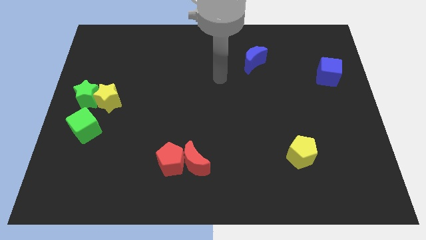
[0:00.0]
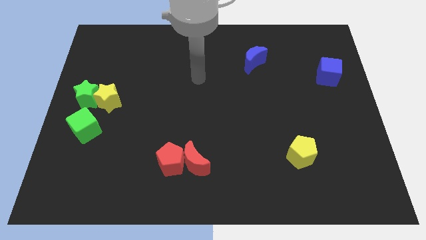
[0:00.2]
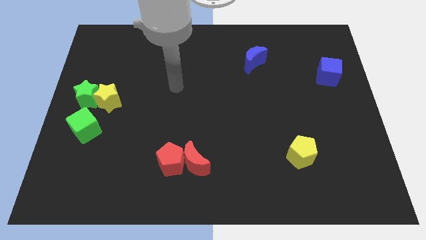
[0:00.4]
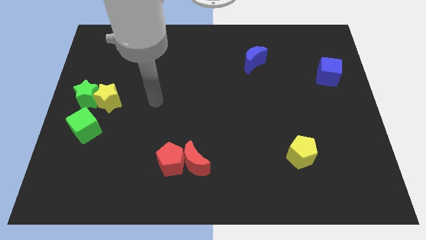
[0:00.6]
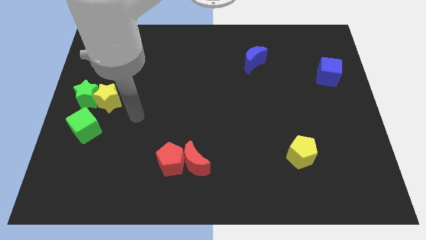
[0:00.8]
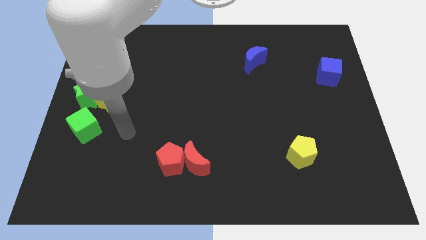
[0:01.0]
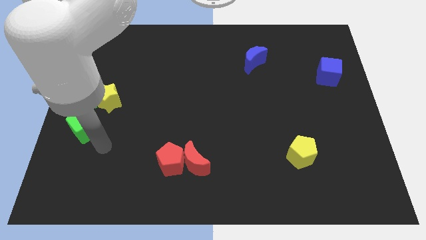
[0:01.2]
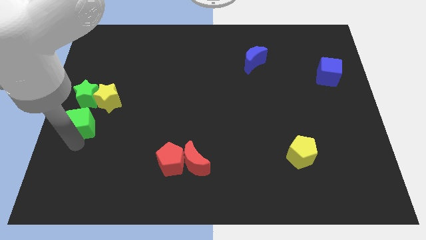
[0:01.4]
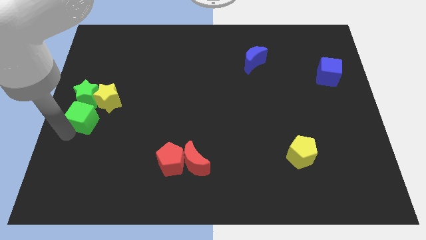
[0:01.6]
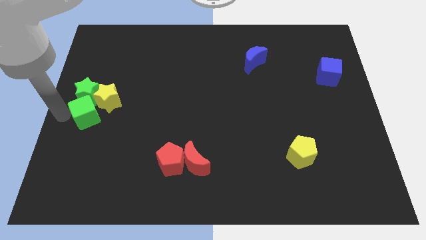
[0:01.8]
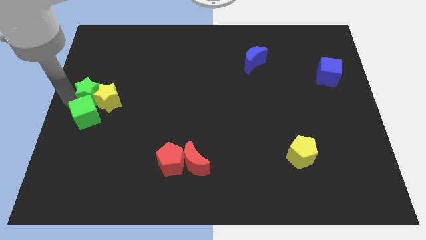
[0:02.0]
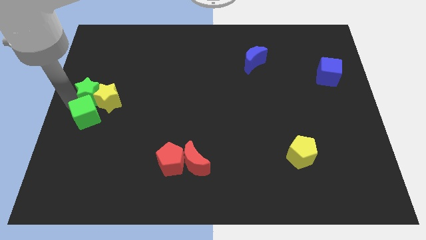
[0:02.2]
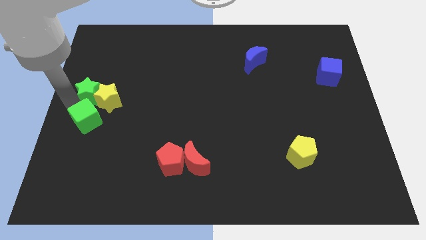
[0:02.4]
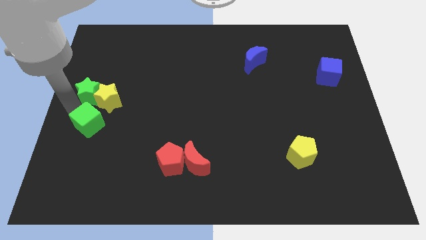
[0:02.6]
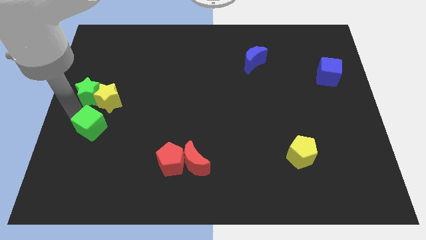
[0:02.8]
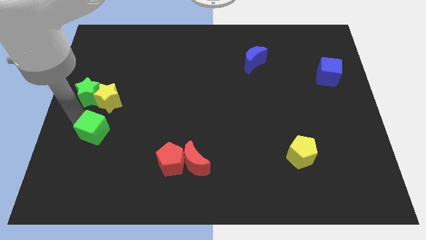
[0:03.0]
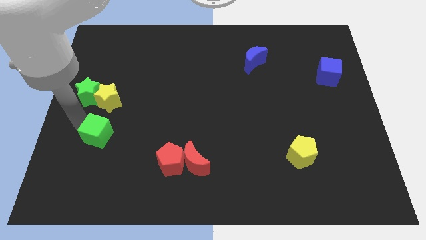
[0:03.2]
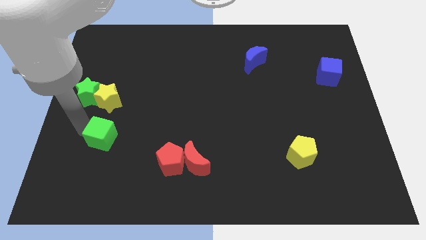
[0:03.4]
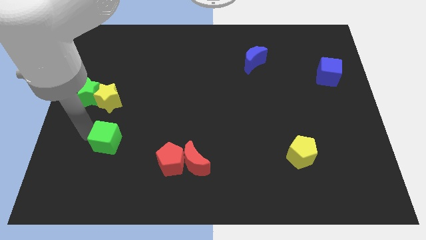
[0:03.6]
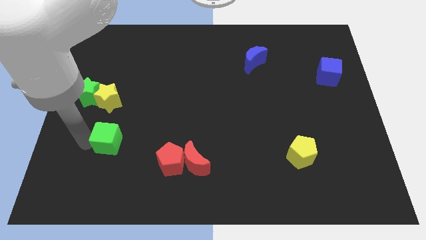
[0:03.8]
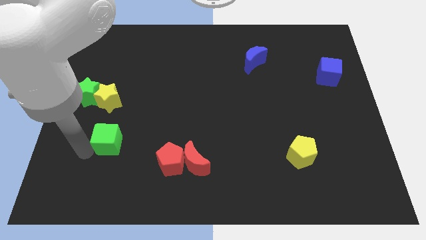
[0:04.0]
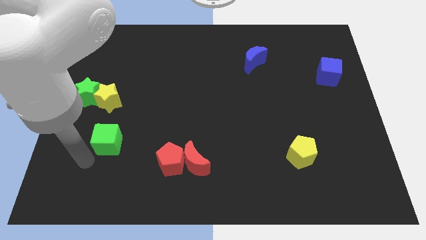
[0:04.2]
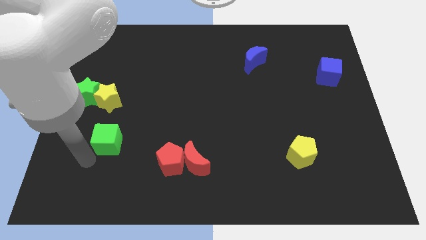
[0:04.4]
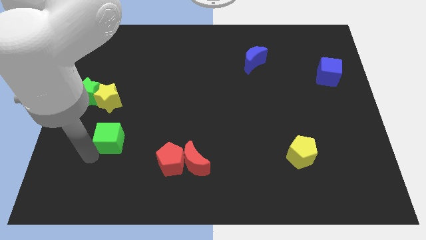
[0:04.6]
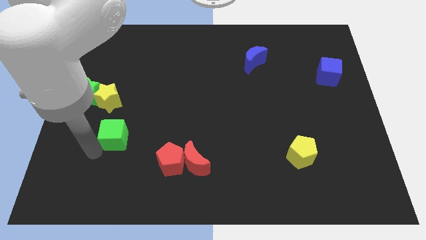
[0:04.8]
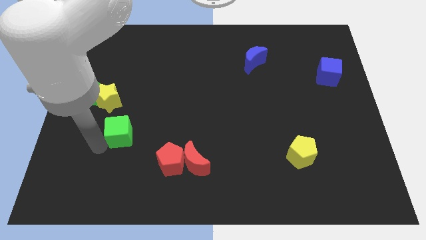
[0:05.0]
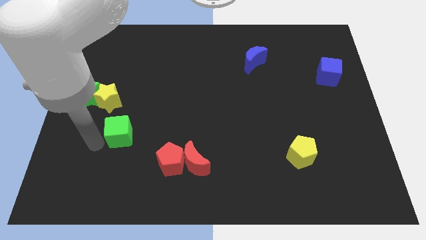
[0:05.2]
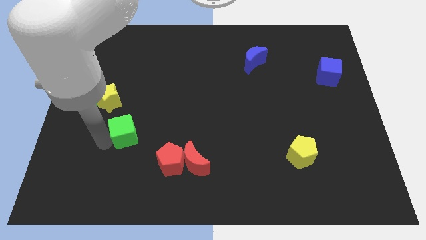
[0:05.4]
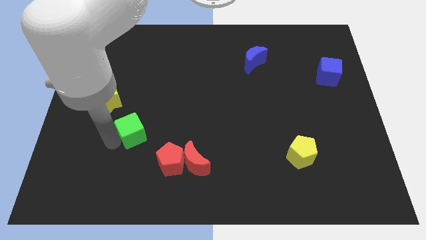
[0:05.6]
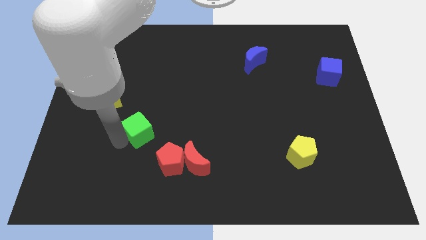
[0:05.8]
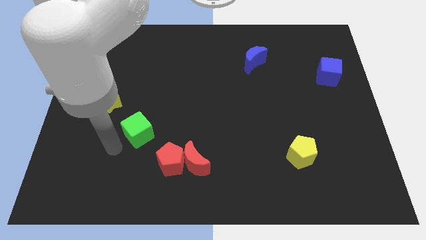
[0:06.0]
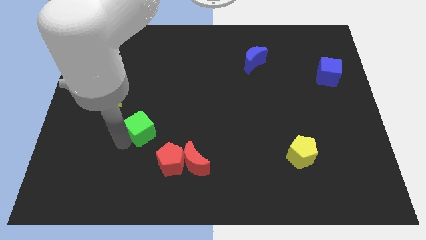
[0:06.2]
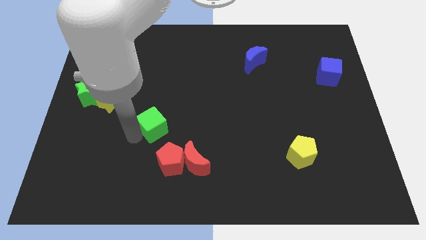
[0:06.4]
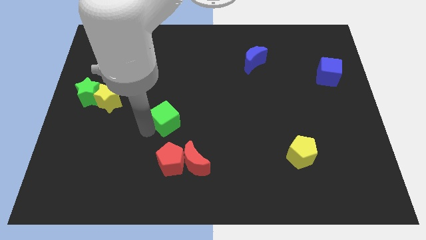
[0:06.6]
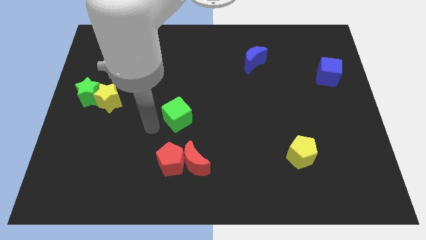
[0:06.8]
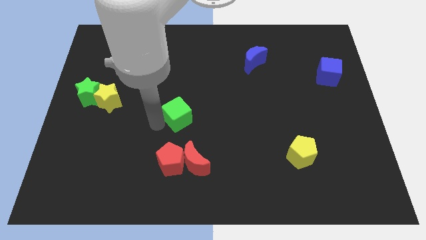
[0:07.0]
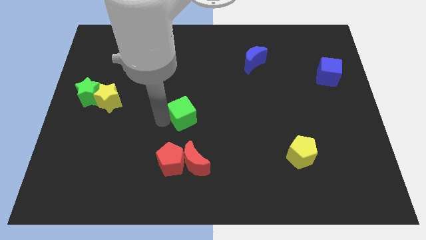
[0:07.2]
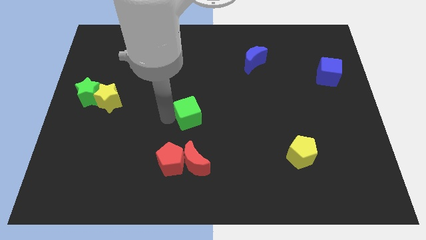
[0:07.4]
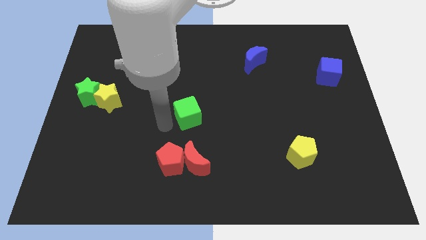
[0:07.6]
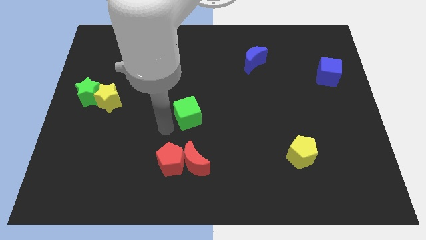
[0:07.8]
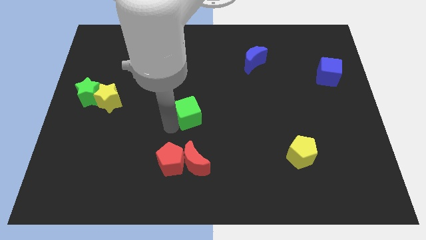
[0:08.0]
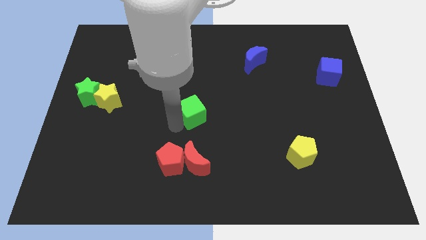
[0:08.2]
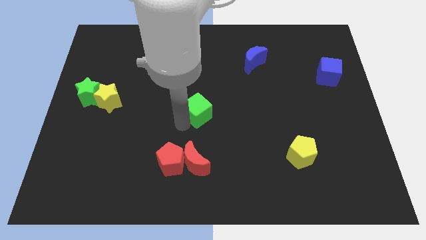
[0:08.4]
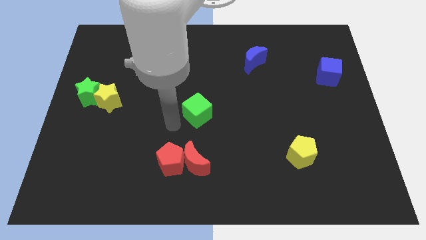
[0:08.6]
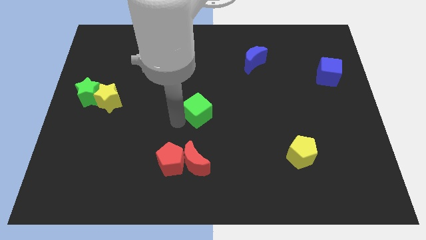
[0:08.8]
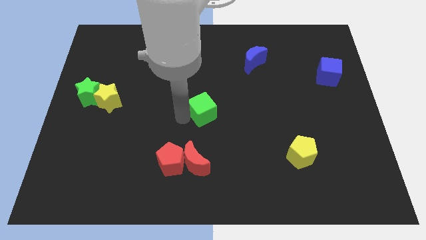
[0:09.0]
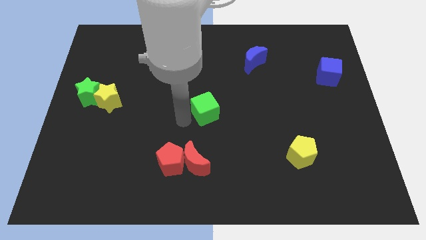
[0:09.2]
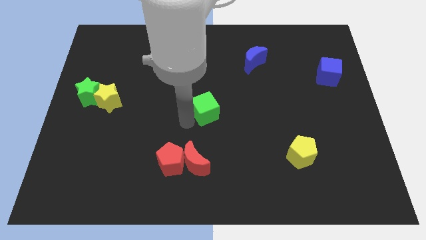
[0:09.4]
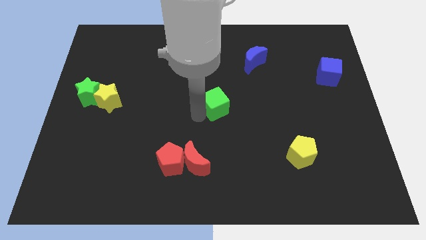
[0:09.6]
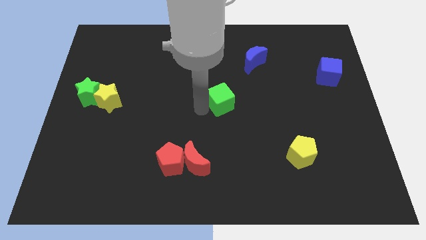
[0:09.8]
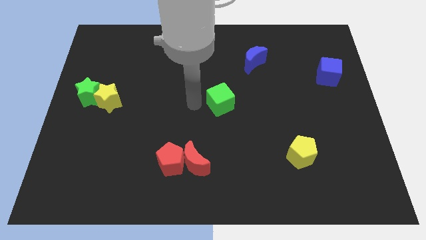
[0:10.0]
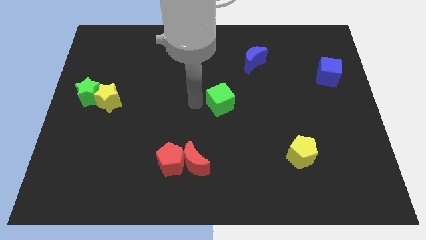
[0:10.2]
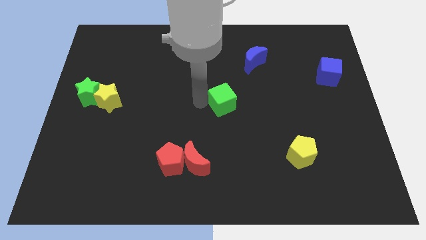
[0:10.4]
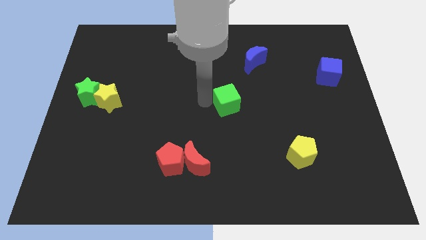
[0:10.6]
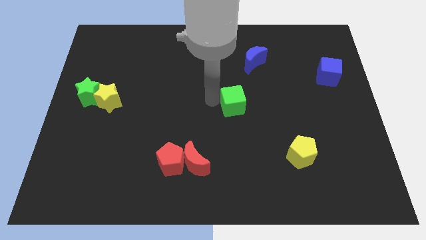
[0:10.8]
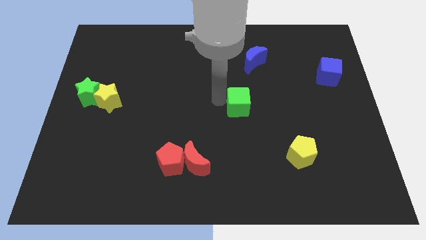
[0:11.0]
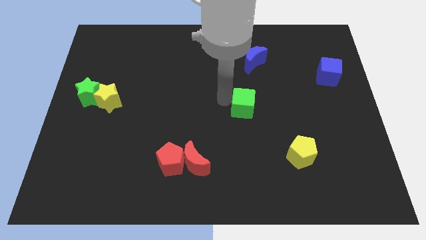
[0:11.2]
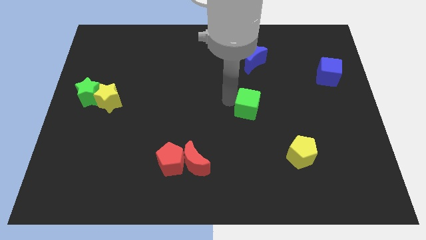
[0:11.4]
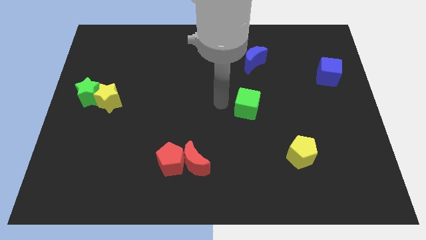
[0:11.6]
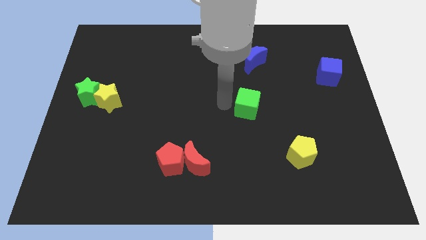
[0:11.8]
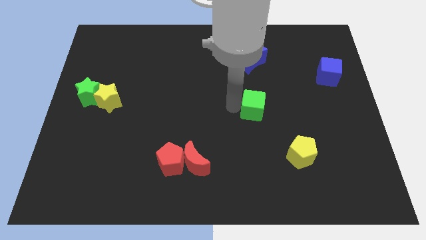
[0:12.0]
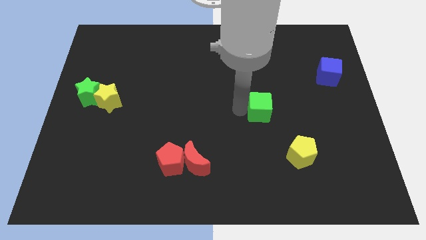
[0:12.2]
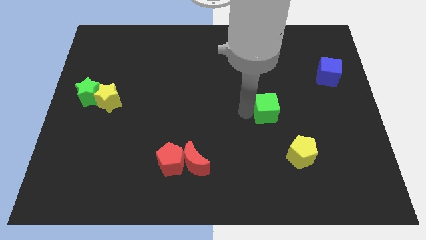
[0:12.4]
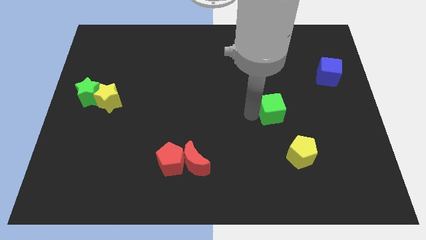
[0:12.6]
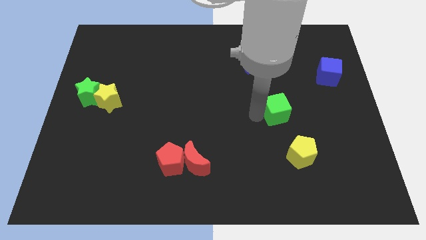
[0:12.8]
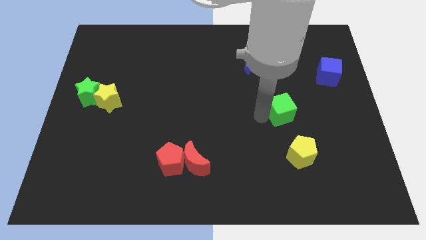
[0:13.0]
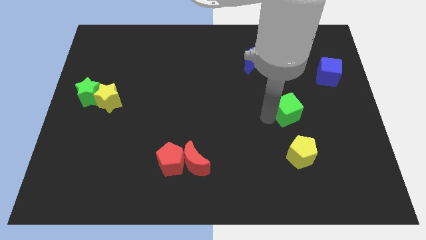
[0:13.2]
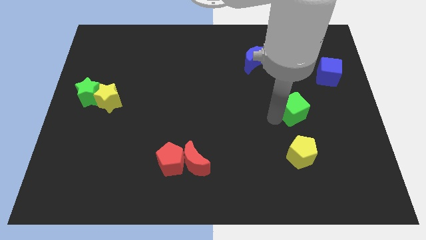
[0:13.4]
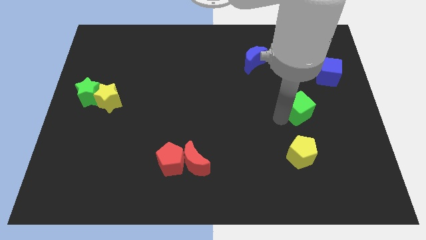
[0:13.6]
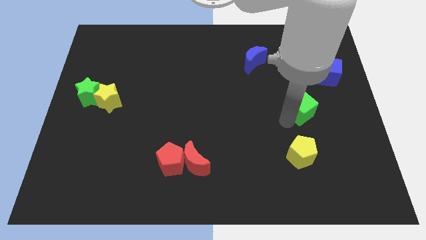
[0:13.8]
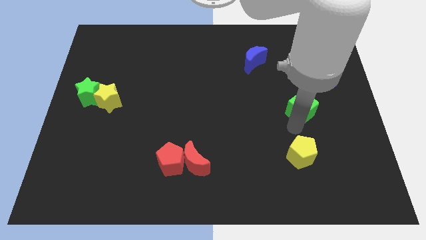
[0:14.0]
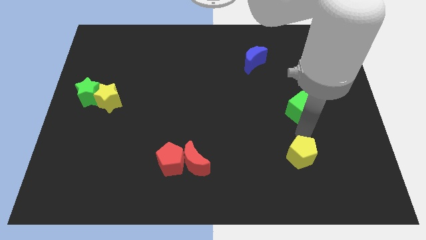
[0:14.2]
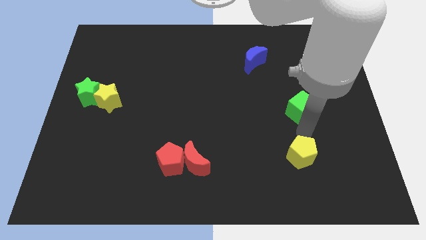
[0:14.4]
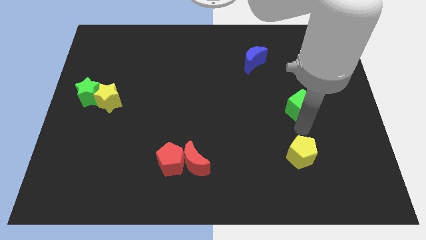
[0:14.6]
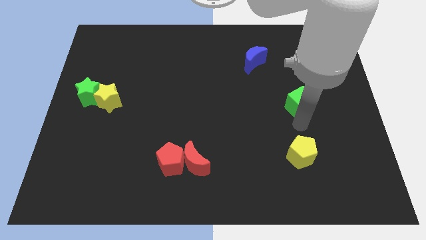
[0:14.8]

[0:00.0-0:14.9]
put the green cube diagonally down and to the left of the blue cube
